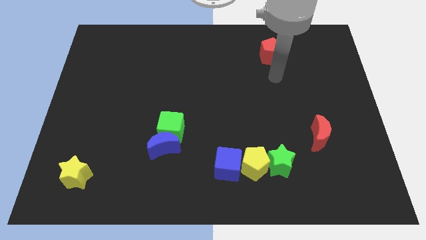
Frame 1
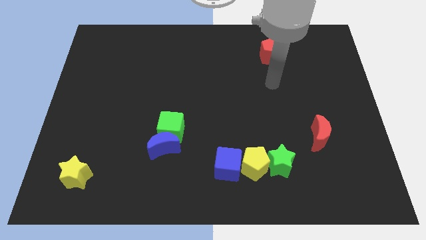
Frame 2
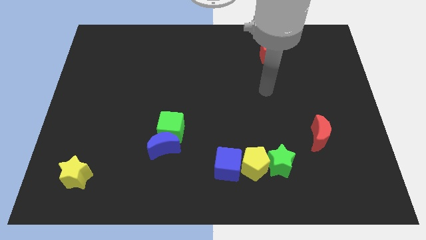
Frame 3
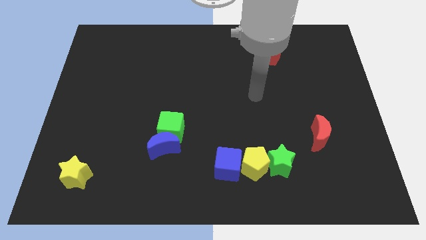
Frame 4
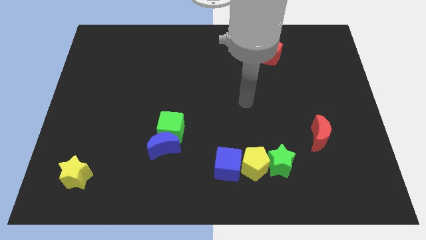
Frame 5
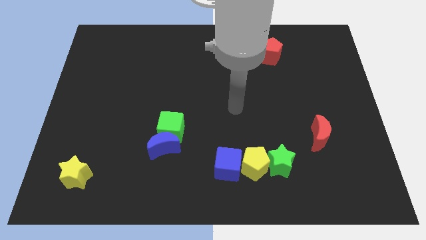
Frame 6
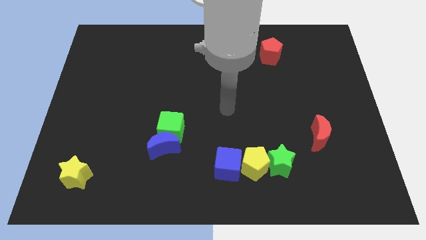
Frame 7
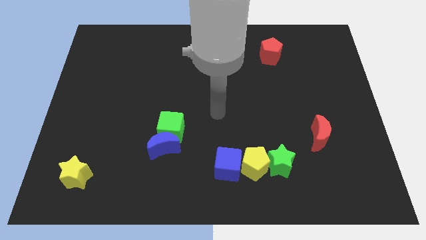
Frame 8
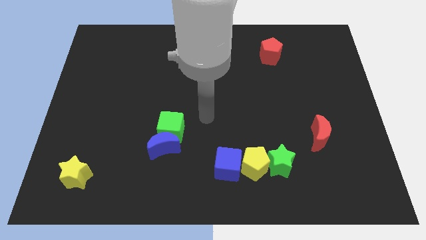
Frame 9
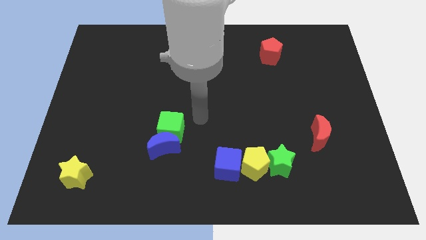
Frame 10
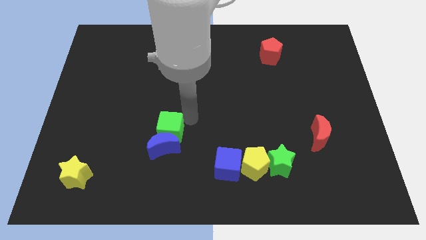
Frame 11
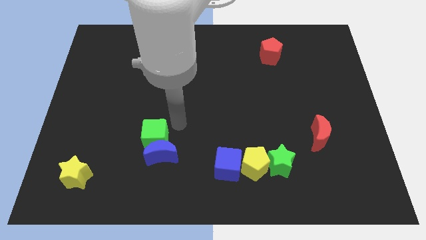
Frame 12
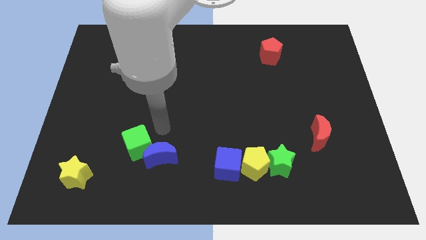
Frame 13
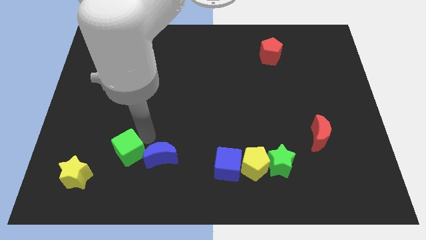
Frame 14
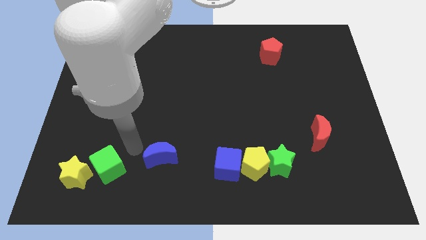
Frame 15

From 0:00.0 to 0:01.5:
move the blue moon away from the green cube

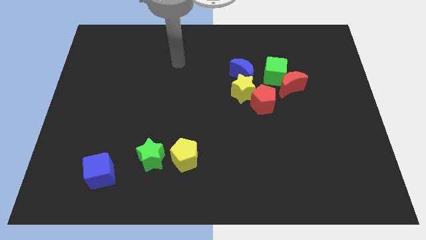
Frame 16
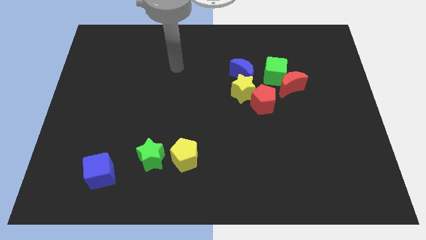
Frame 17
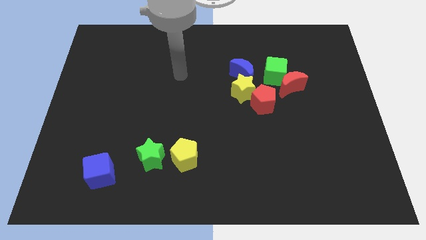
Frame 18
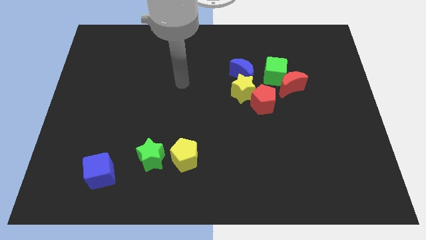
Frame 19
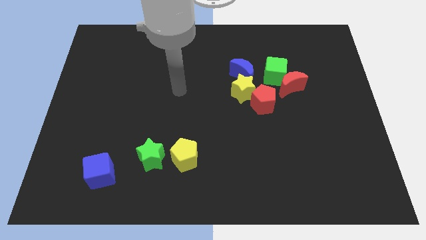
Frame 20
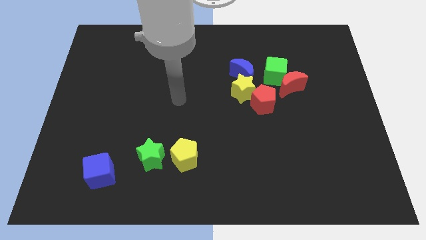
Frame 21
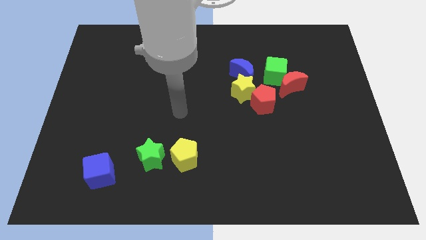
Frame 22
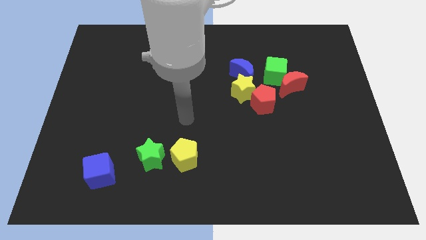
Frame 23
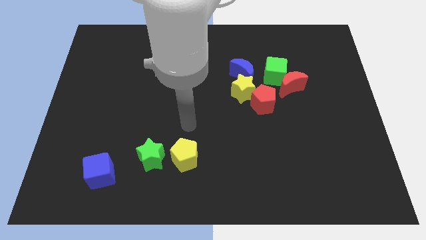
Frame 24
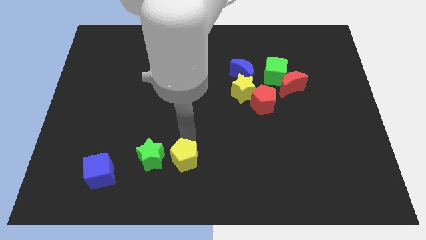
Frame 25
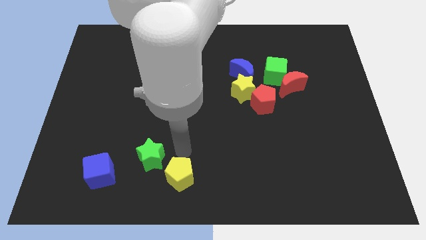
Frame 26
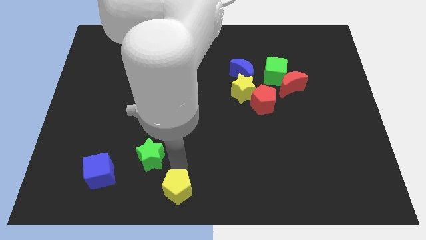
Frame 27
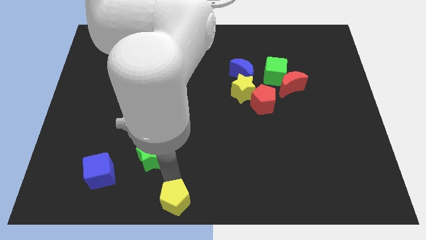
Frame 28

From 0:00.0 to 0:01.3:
pull the green star apart from the yellow pentagon

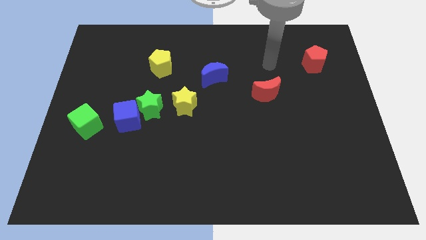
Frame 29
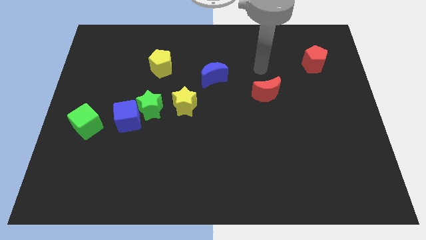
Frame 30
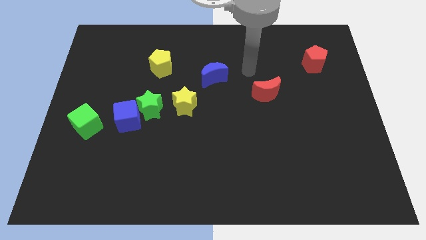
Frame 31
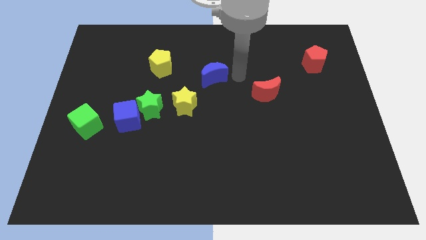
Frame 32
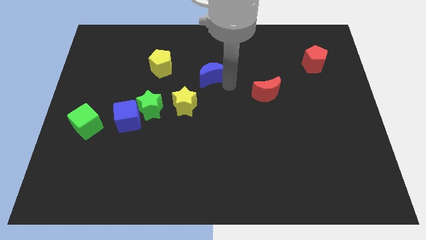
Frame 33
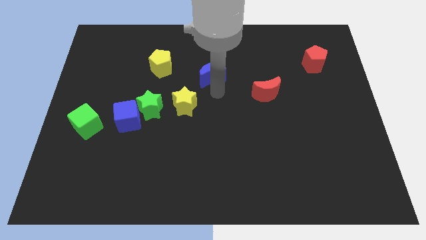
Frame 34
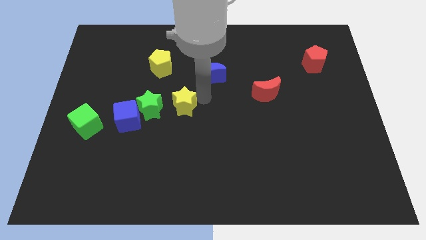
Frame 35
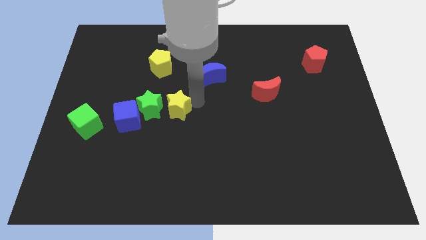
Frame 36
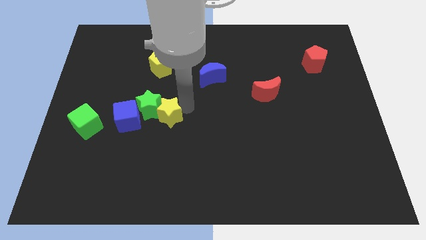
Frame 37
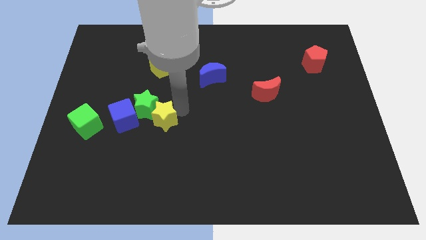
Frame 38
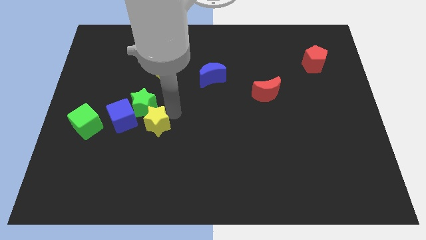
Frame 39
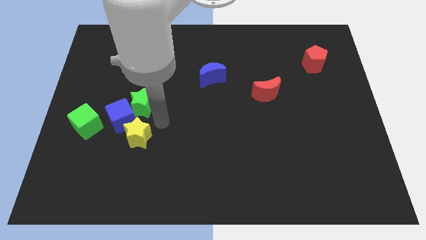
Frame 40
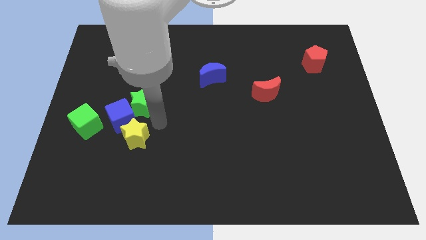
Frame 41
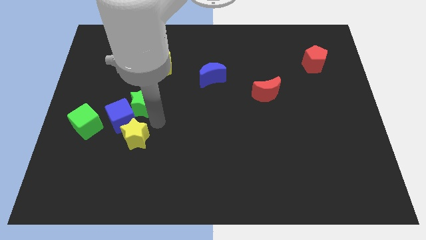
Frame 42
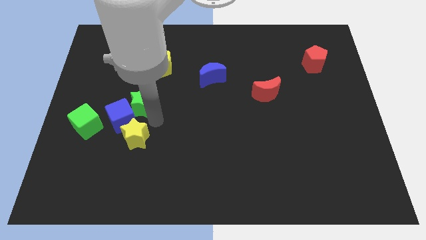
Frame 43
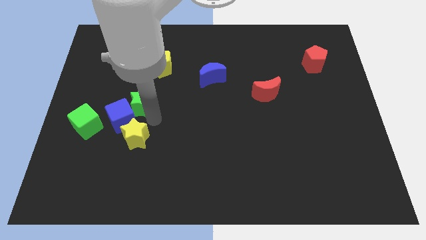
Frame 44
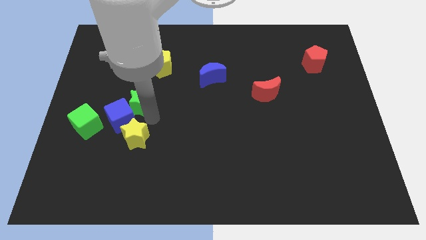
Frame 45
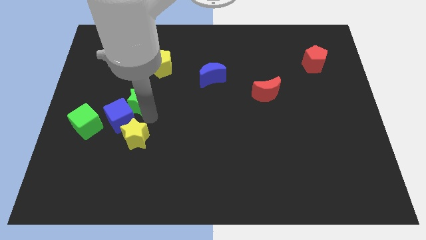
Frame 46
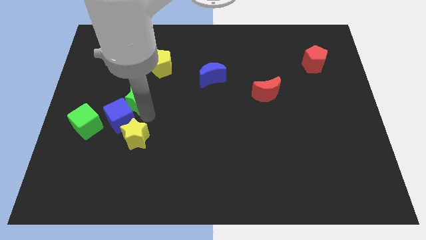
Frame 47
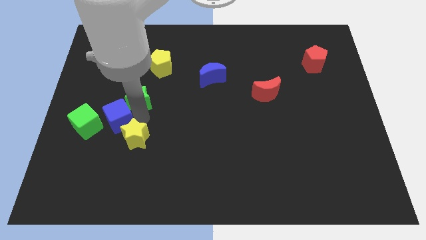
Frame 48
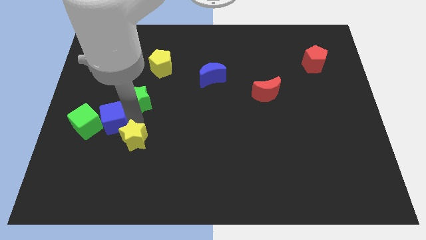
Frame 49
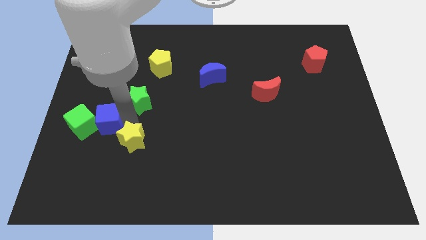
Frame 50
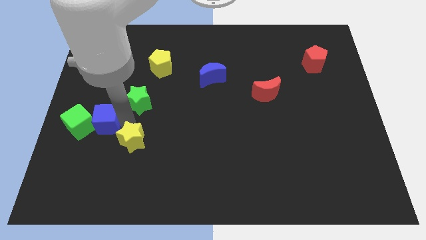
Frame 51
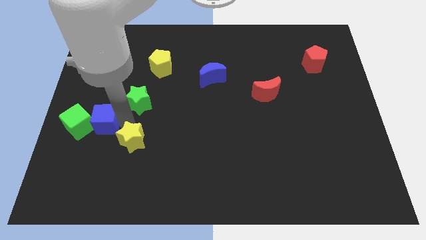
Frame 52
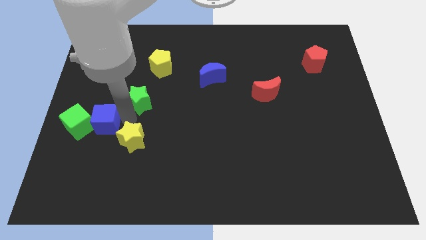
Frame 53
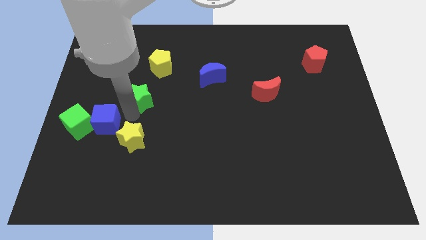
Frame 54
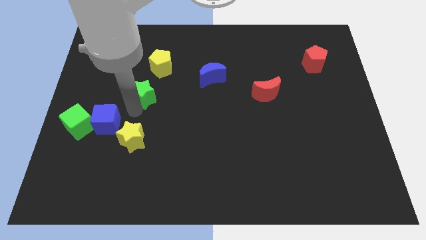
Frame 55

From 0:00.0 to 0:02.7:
move the green star away from the blue cube and yellow star

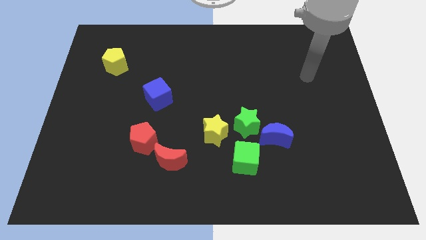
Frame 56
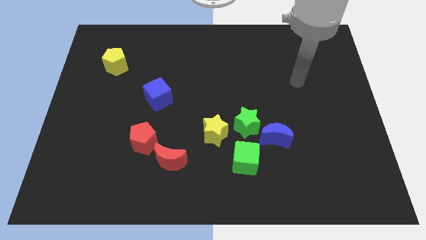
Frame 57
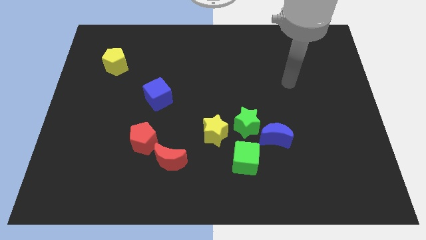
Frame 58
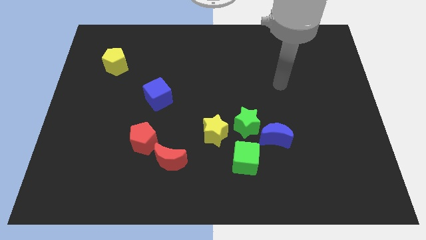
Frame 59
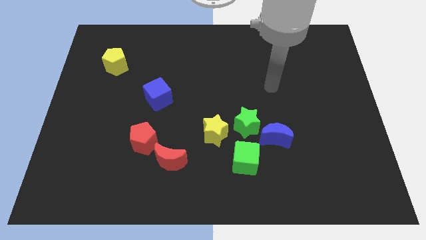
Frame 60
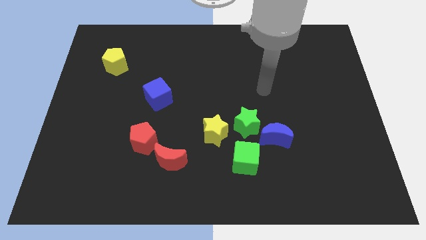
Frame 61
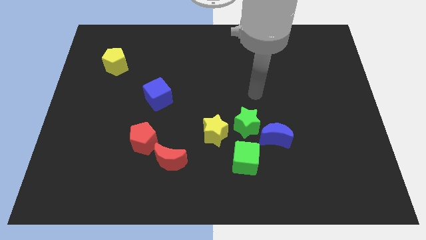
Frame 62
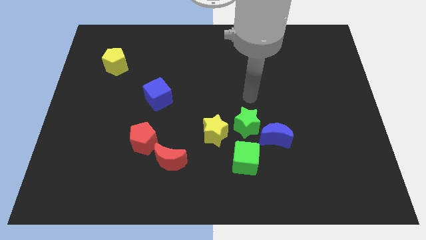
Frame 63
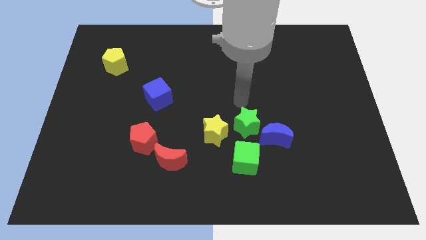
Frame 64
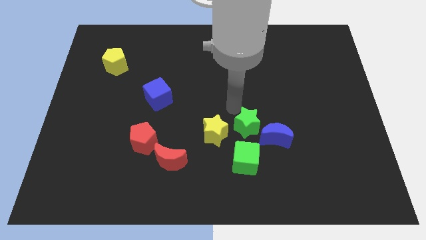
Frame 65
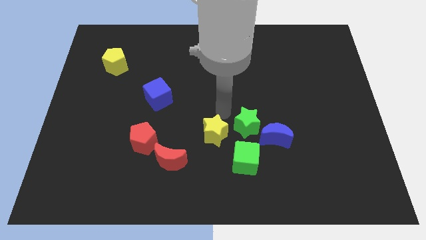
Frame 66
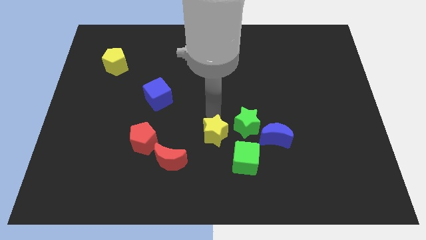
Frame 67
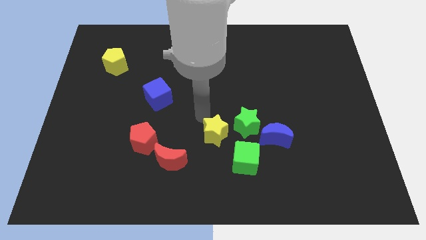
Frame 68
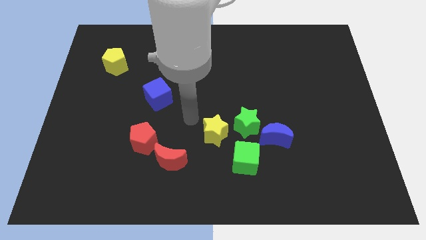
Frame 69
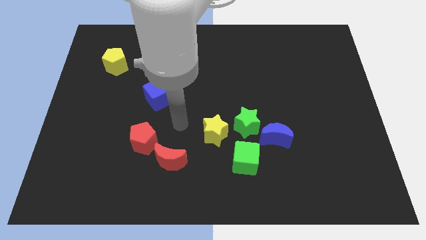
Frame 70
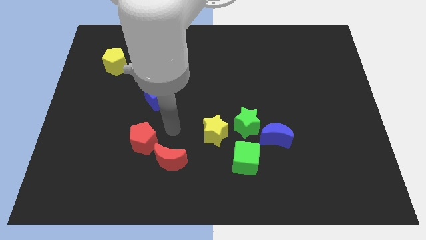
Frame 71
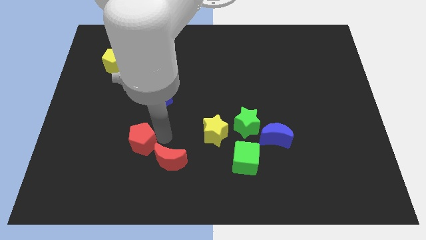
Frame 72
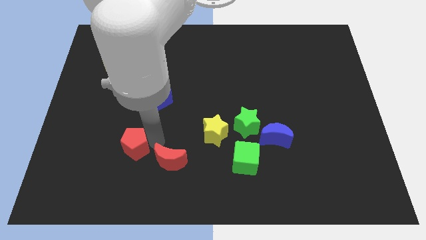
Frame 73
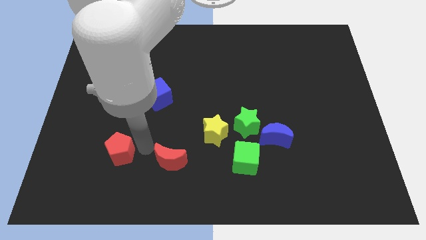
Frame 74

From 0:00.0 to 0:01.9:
pull the red moon apart from the red pentagon

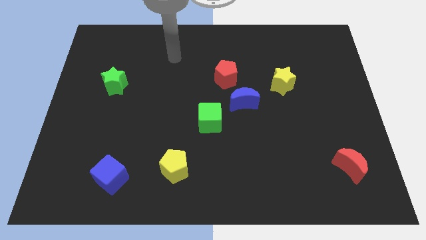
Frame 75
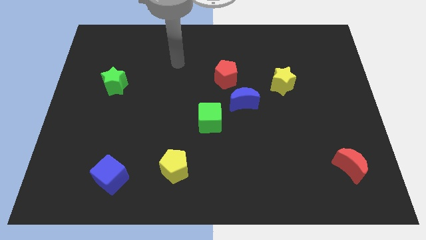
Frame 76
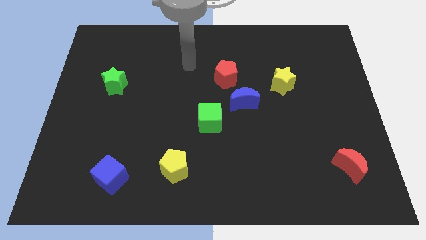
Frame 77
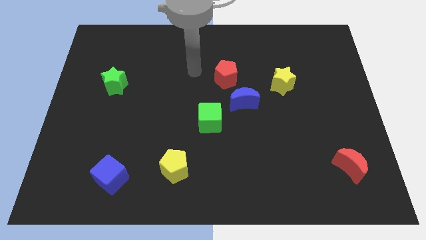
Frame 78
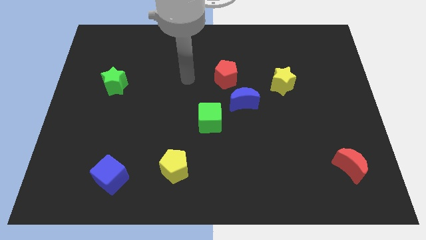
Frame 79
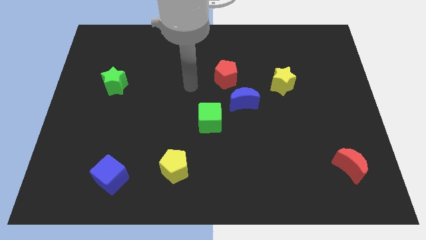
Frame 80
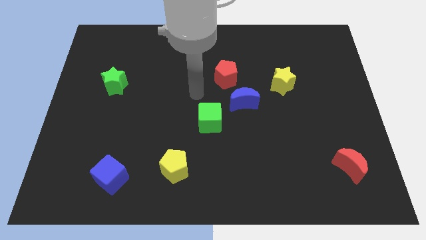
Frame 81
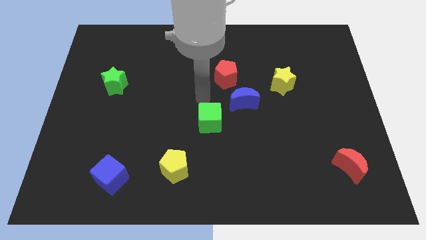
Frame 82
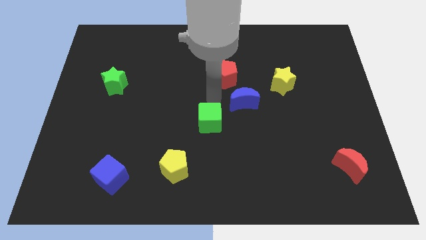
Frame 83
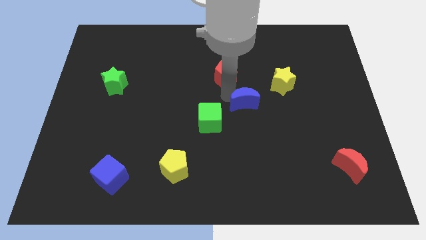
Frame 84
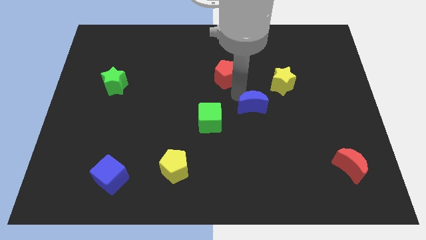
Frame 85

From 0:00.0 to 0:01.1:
pull the red pentagon apart from the blue moon

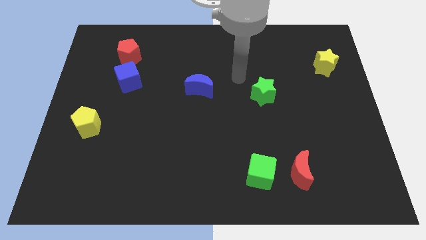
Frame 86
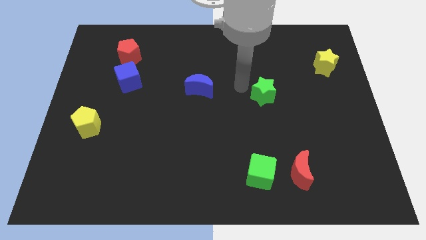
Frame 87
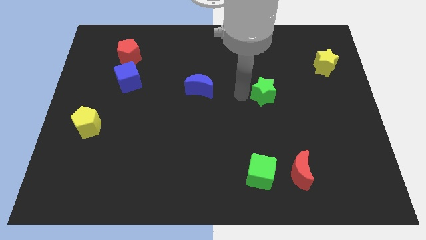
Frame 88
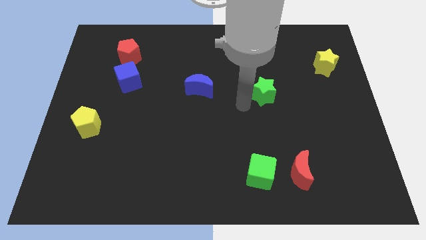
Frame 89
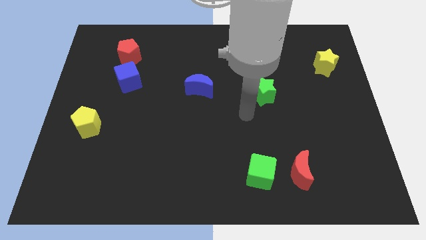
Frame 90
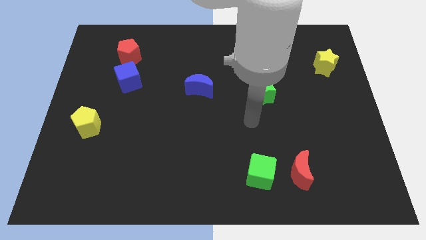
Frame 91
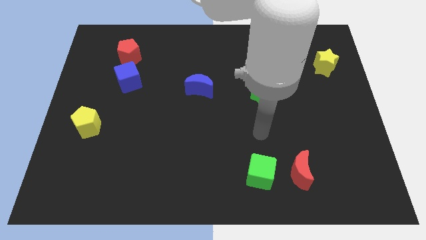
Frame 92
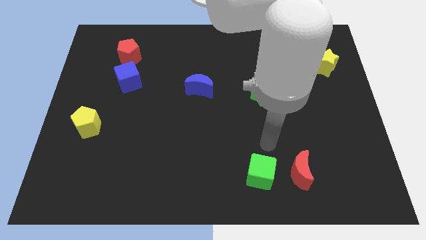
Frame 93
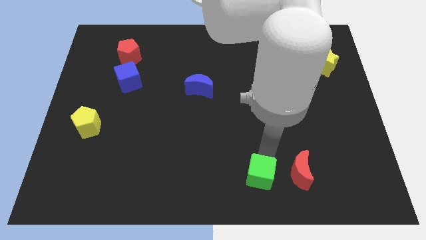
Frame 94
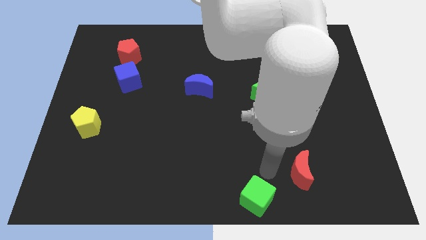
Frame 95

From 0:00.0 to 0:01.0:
move the red moon away from the green cube
